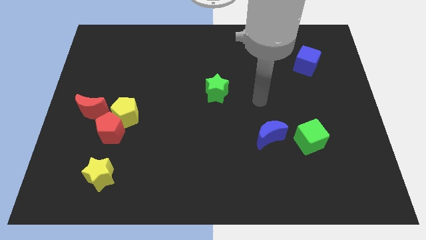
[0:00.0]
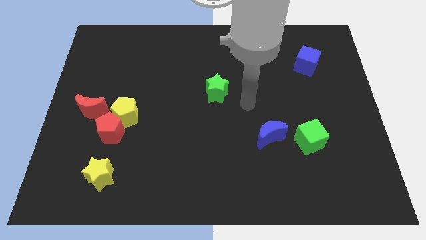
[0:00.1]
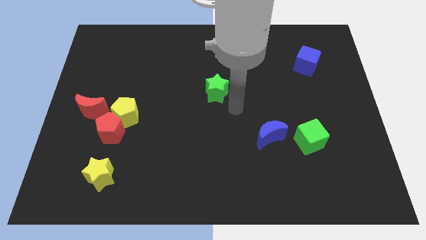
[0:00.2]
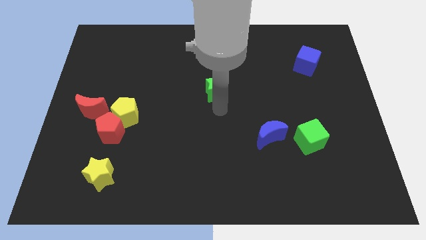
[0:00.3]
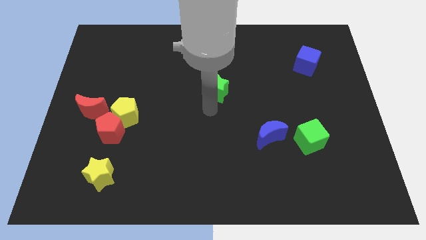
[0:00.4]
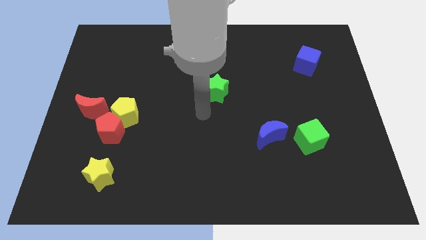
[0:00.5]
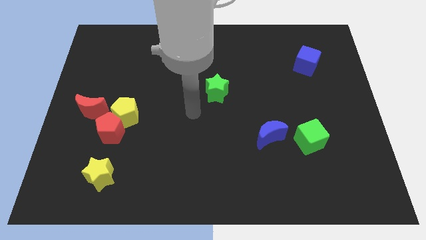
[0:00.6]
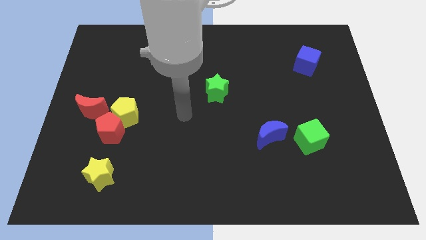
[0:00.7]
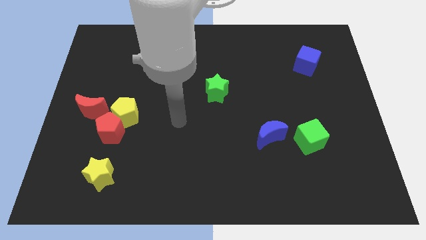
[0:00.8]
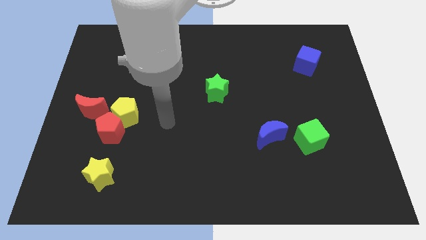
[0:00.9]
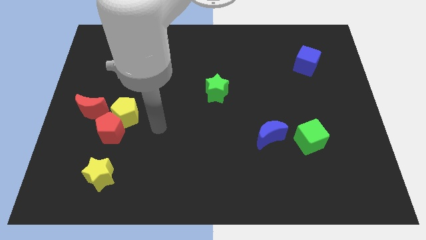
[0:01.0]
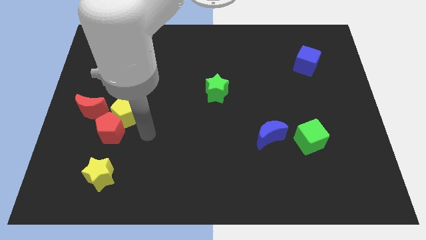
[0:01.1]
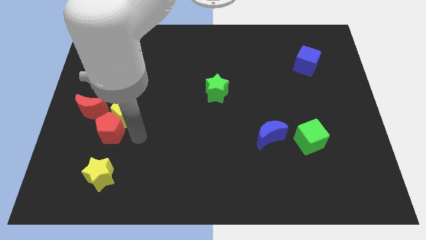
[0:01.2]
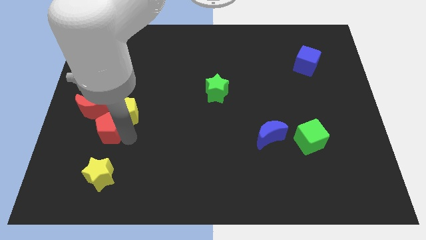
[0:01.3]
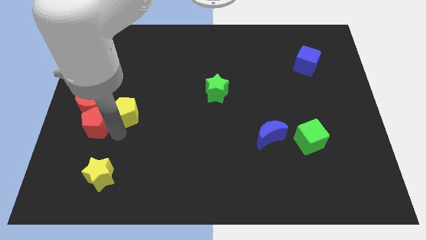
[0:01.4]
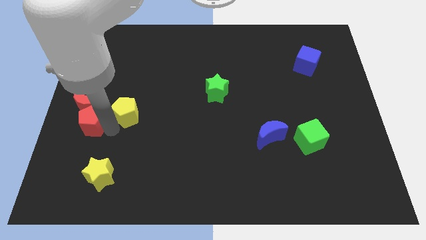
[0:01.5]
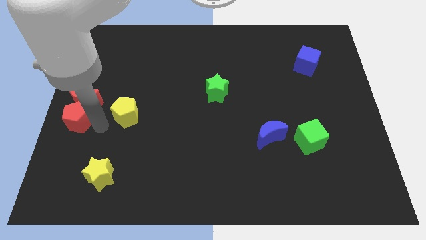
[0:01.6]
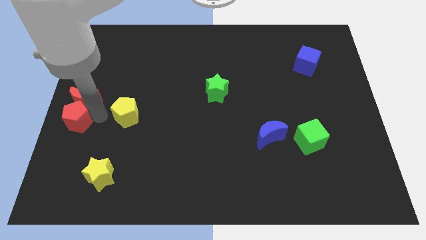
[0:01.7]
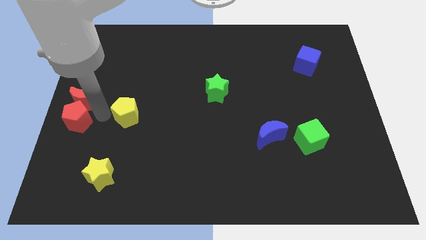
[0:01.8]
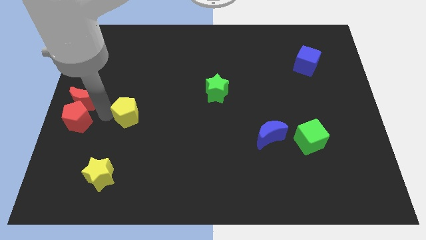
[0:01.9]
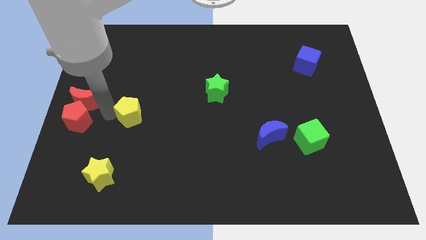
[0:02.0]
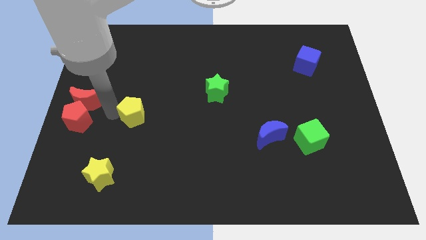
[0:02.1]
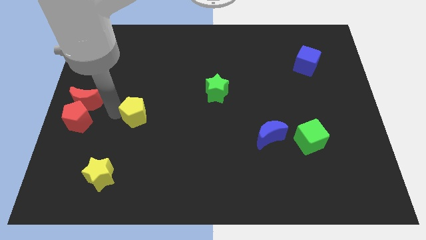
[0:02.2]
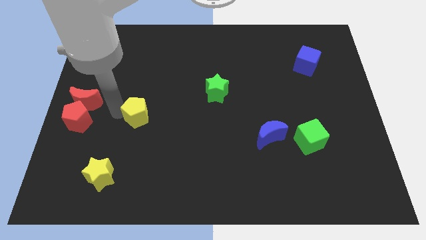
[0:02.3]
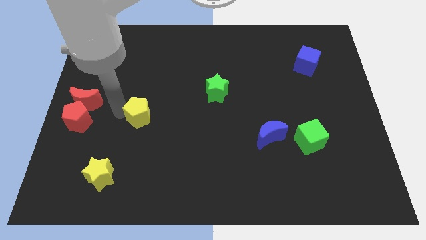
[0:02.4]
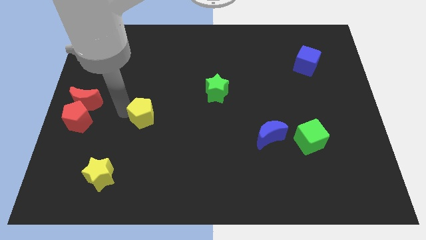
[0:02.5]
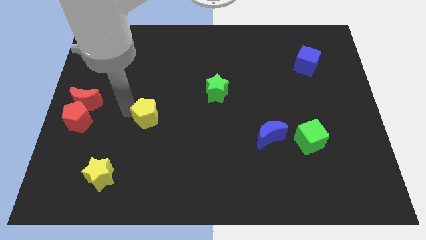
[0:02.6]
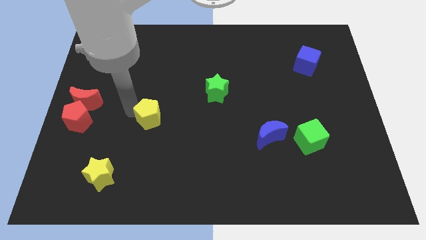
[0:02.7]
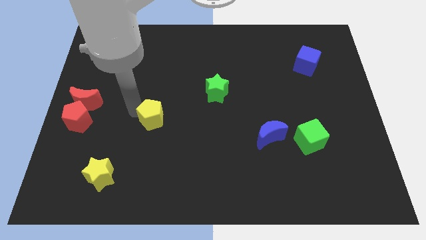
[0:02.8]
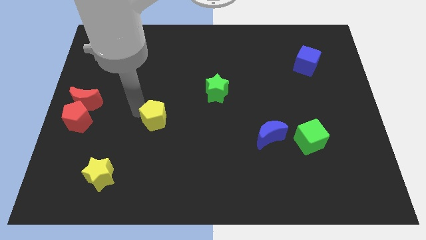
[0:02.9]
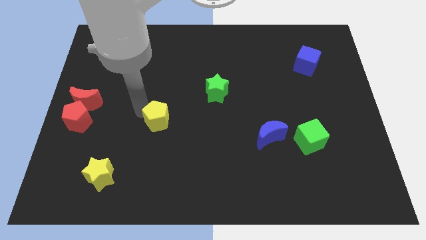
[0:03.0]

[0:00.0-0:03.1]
slide the yellow pentagon to the right a little

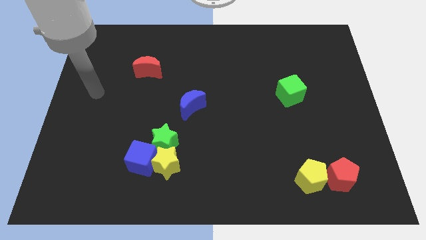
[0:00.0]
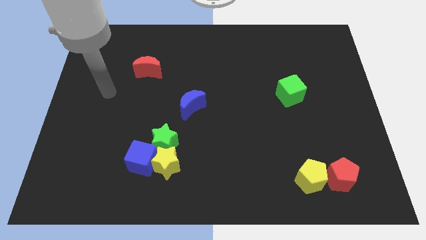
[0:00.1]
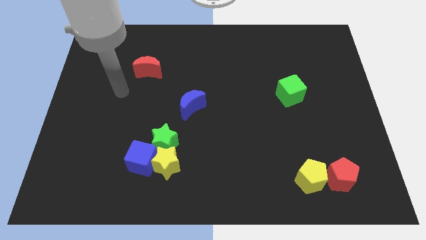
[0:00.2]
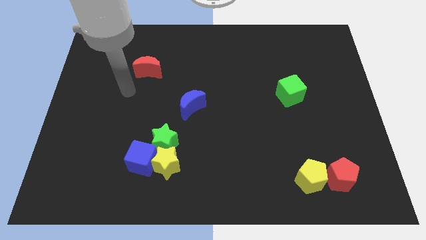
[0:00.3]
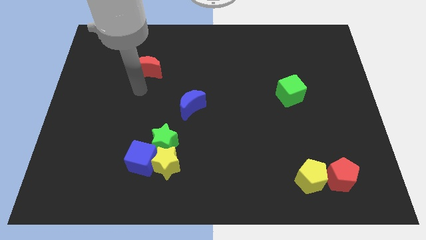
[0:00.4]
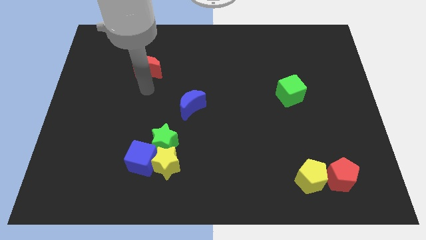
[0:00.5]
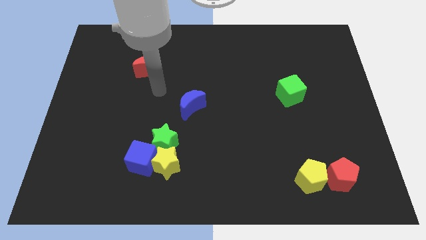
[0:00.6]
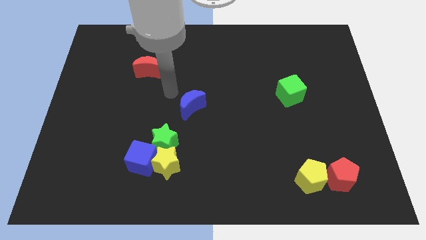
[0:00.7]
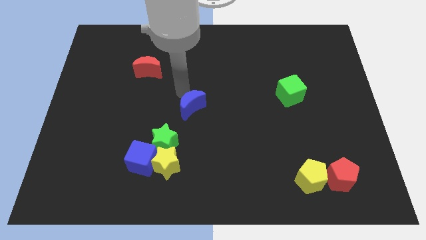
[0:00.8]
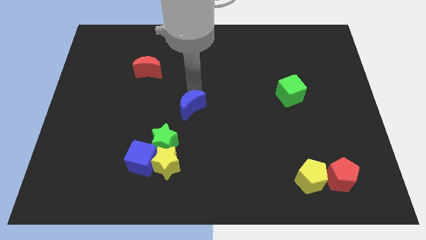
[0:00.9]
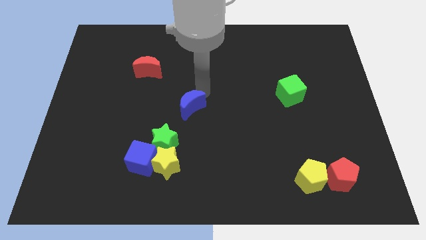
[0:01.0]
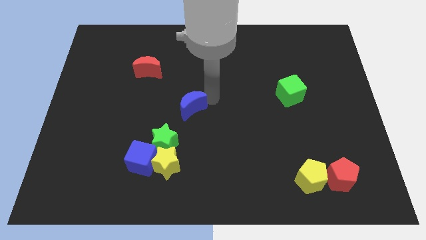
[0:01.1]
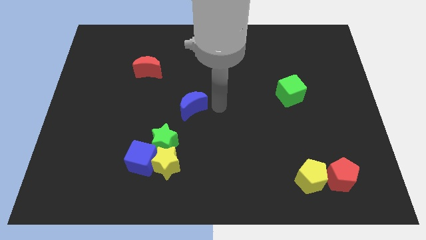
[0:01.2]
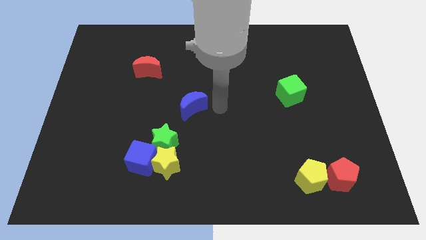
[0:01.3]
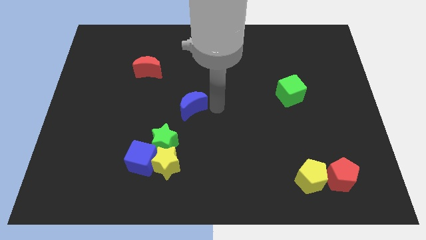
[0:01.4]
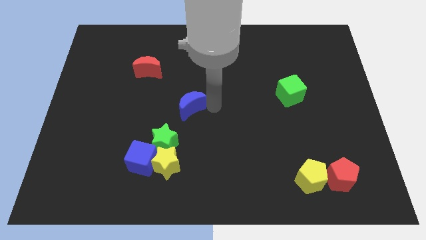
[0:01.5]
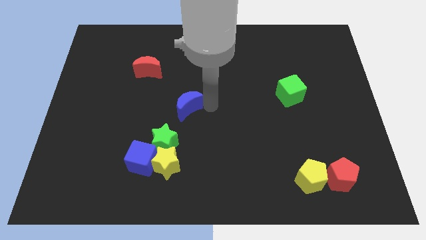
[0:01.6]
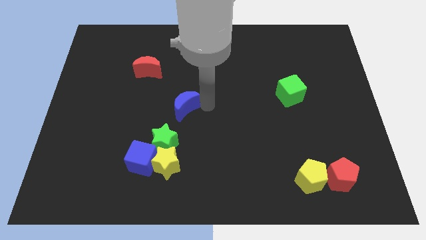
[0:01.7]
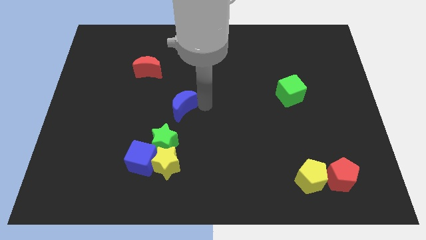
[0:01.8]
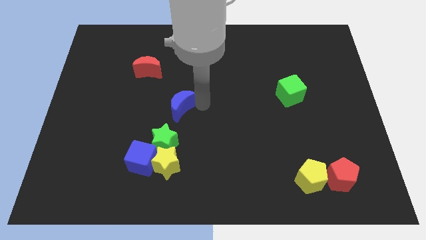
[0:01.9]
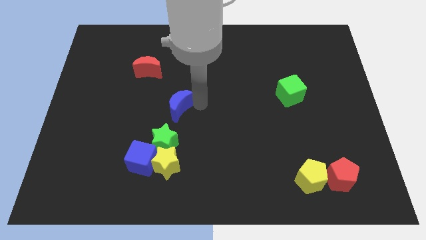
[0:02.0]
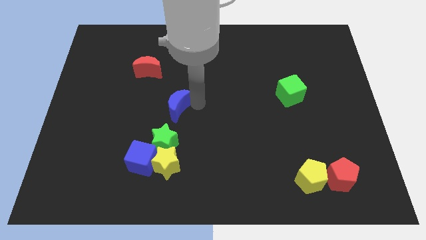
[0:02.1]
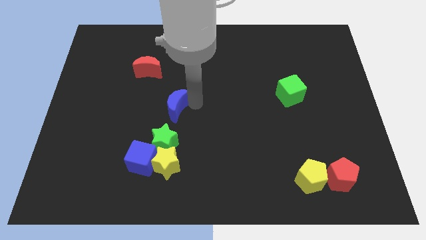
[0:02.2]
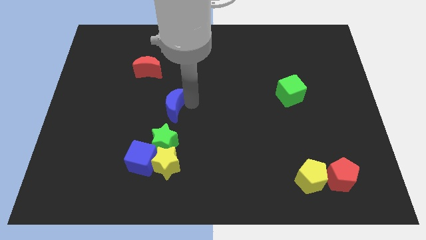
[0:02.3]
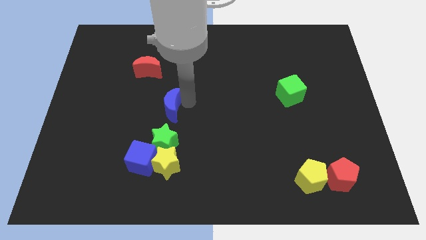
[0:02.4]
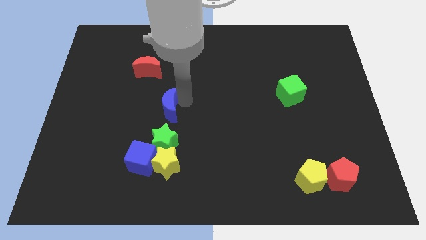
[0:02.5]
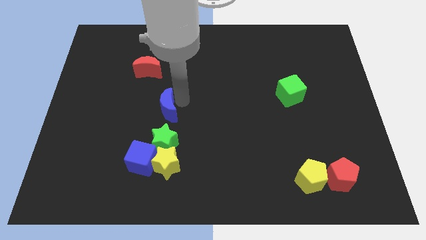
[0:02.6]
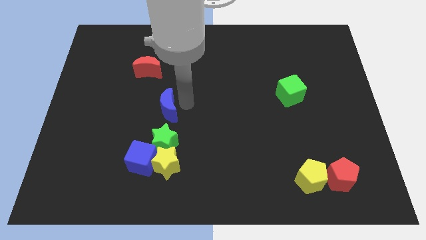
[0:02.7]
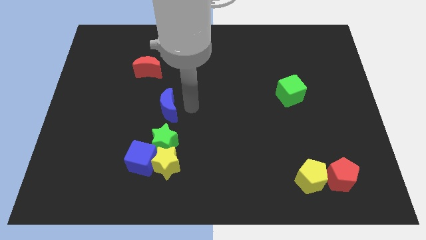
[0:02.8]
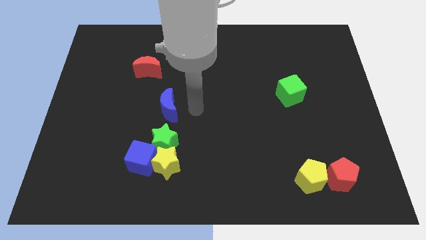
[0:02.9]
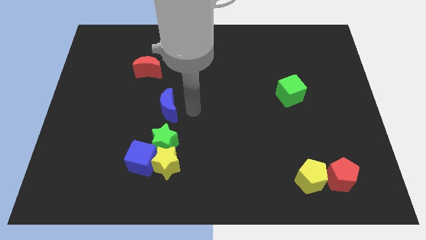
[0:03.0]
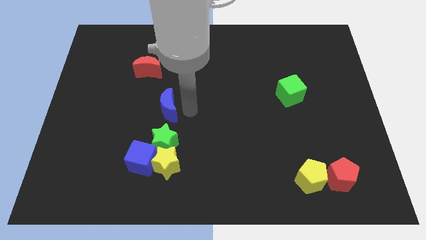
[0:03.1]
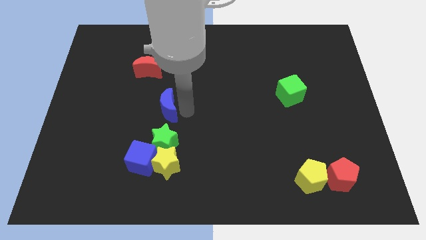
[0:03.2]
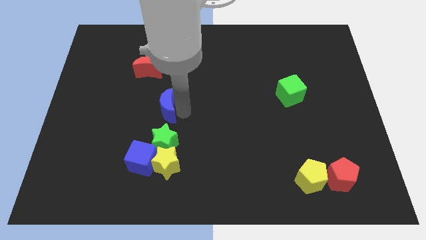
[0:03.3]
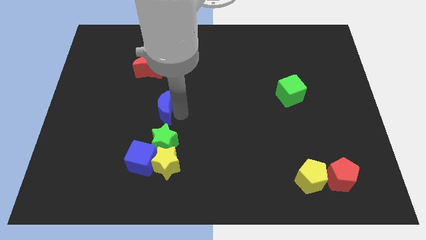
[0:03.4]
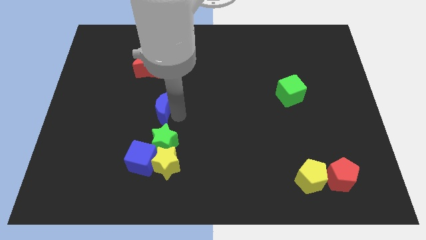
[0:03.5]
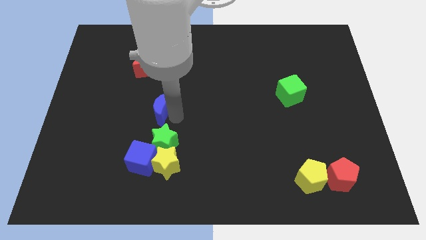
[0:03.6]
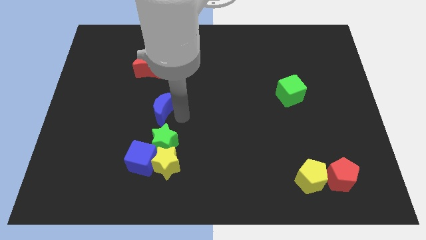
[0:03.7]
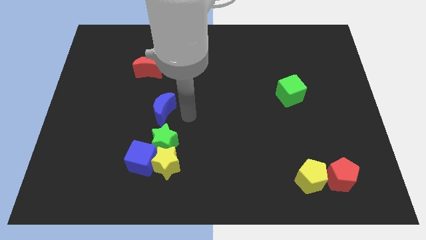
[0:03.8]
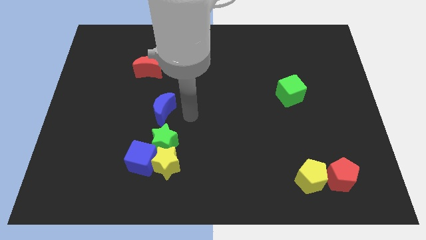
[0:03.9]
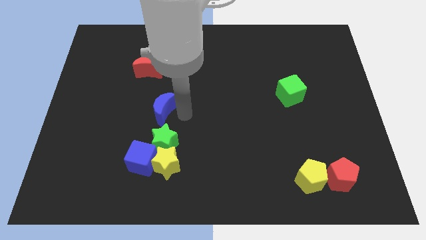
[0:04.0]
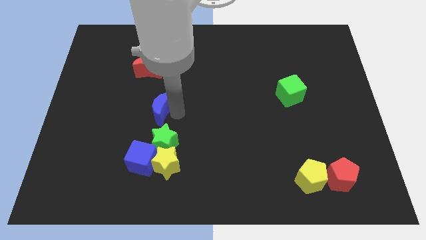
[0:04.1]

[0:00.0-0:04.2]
move the blue moon a little bit to the left

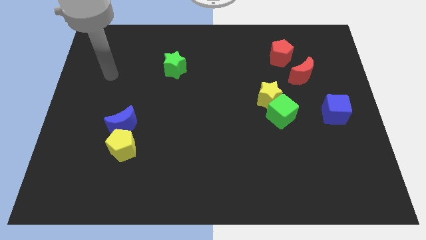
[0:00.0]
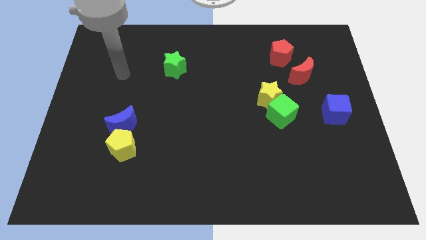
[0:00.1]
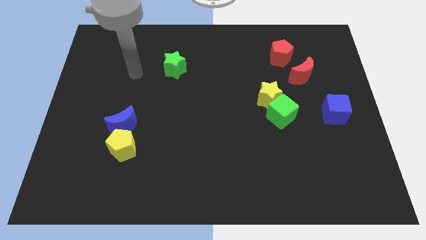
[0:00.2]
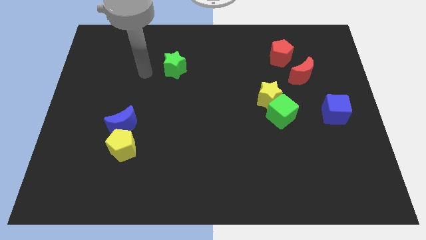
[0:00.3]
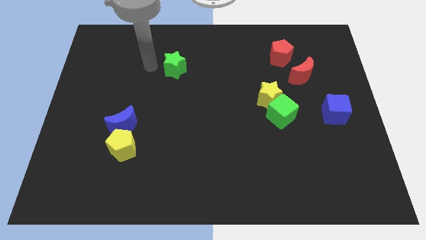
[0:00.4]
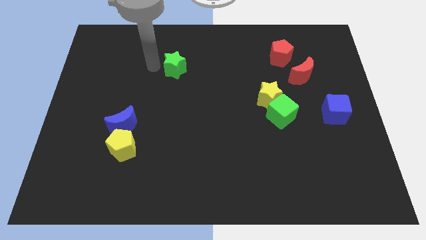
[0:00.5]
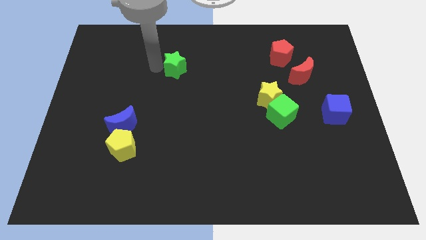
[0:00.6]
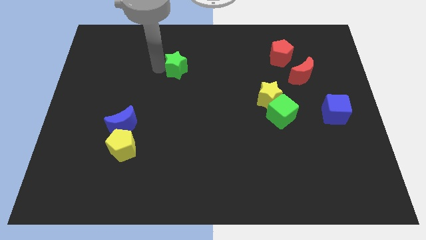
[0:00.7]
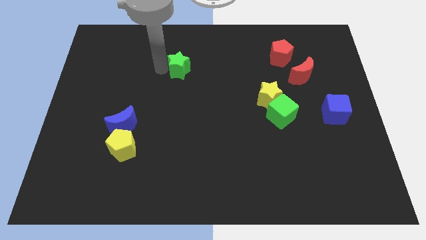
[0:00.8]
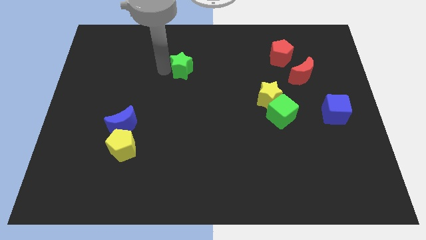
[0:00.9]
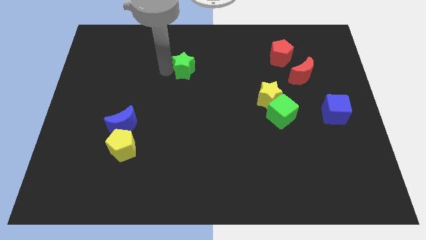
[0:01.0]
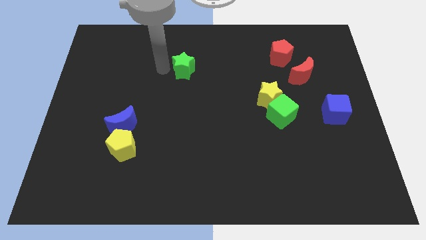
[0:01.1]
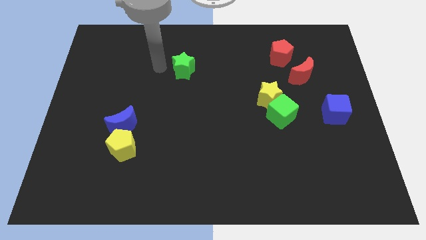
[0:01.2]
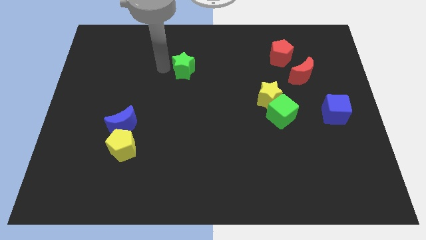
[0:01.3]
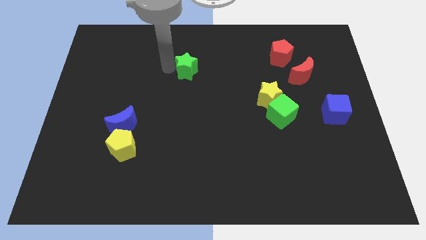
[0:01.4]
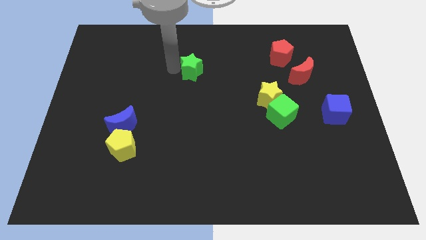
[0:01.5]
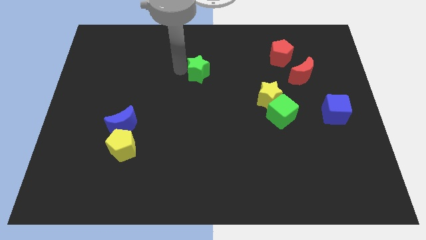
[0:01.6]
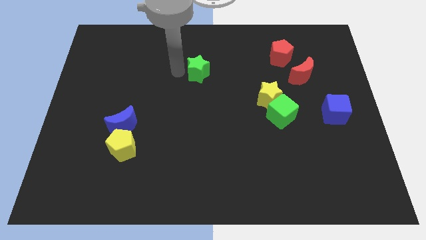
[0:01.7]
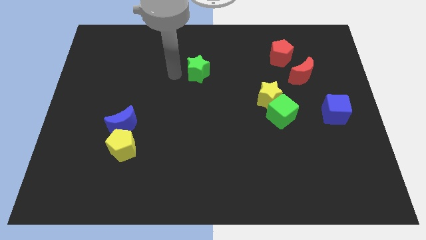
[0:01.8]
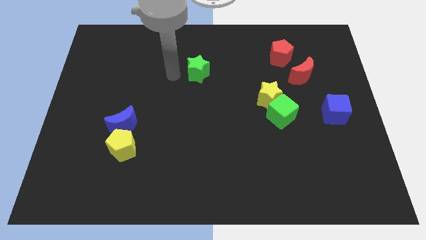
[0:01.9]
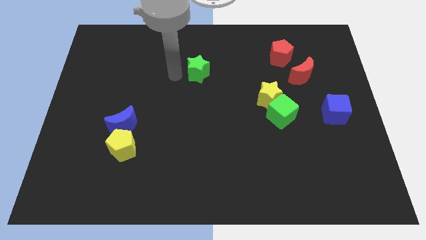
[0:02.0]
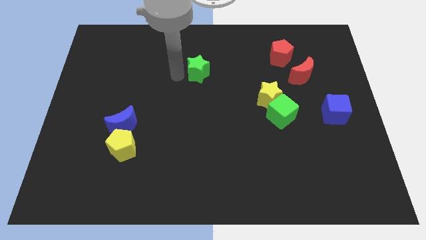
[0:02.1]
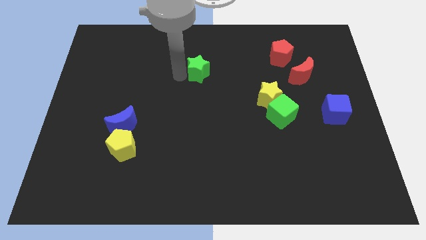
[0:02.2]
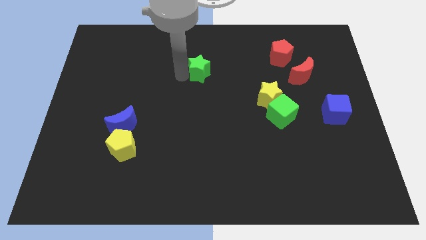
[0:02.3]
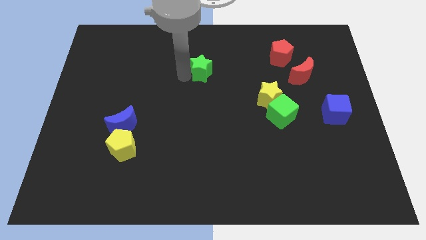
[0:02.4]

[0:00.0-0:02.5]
slightly slide the green star to the right
